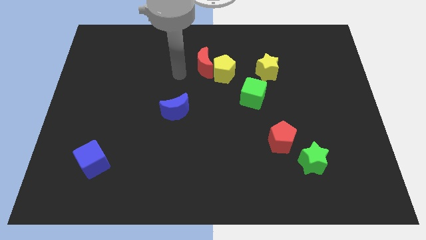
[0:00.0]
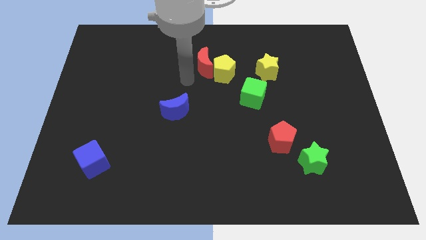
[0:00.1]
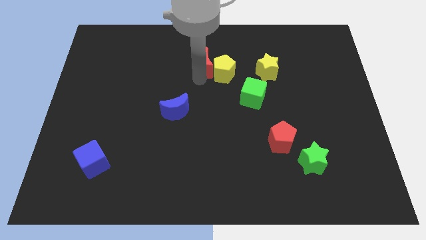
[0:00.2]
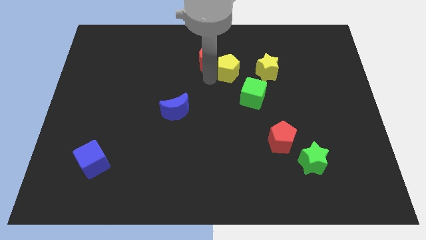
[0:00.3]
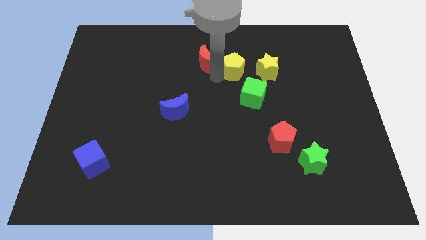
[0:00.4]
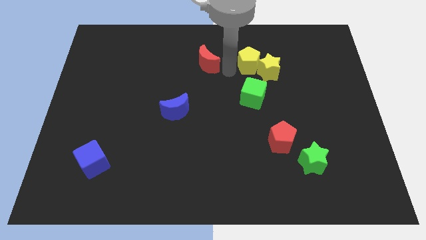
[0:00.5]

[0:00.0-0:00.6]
separate the red moon from the yellow pentagon

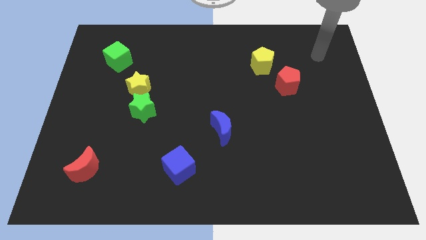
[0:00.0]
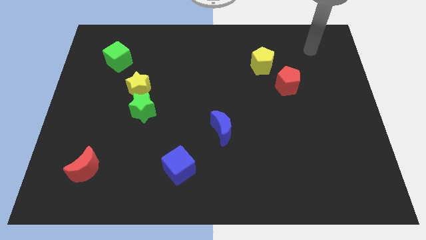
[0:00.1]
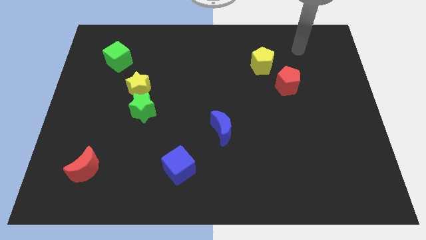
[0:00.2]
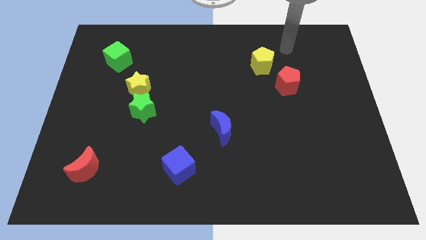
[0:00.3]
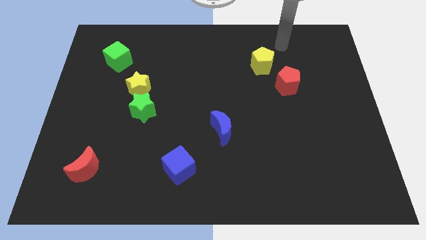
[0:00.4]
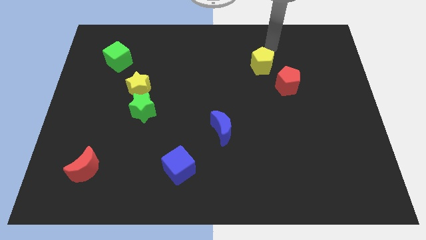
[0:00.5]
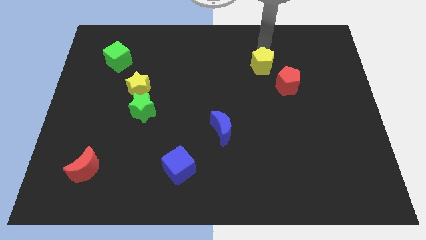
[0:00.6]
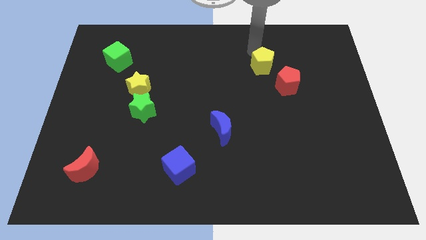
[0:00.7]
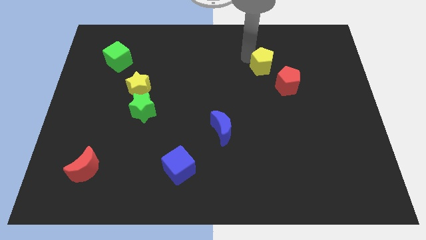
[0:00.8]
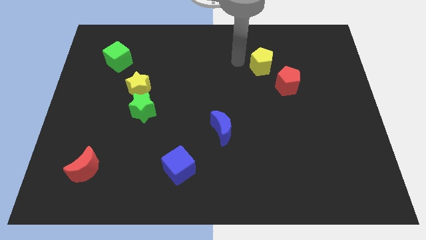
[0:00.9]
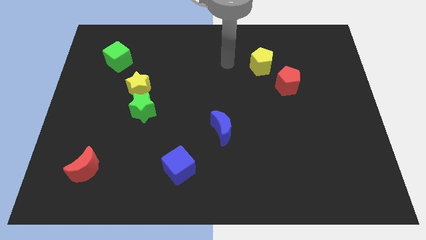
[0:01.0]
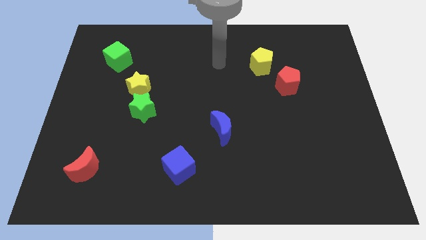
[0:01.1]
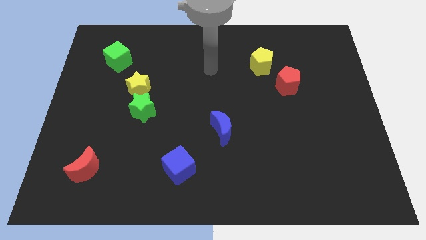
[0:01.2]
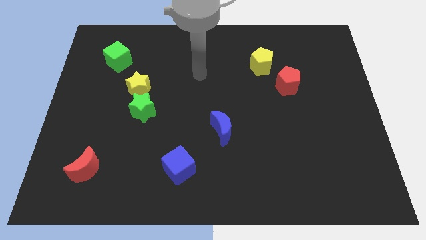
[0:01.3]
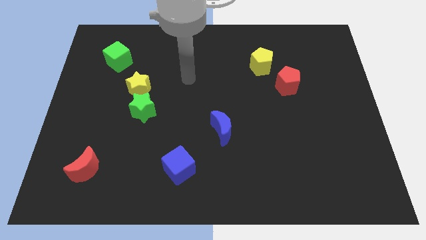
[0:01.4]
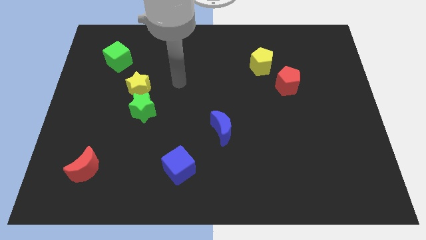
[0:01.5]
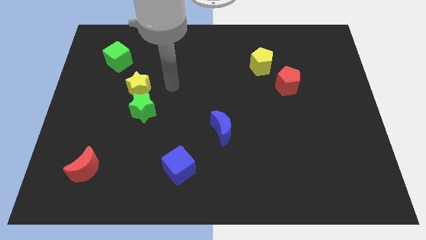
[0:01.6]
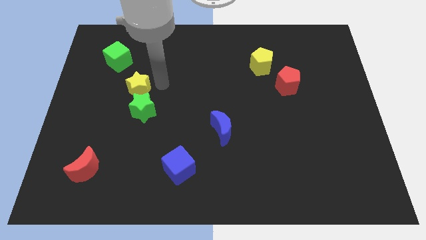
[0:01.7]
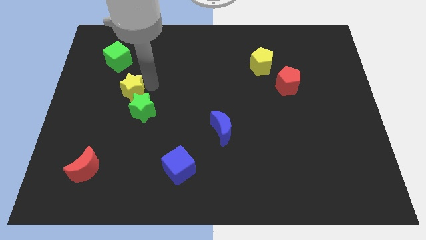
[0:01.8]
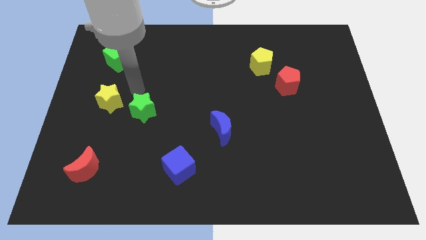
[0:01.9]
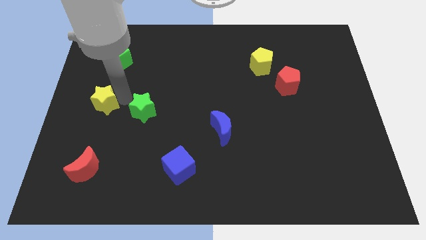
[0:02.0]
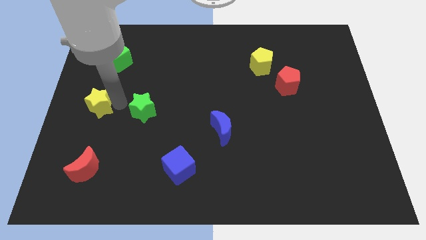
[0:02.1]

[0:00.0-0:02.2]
pull the green star apart from the yellow star

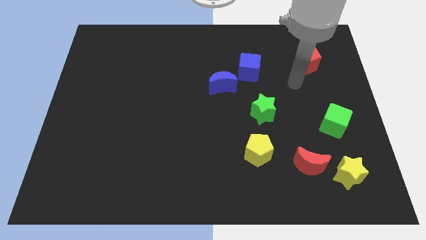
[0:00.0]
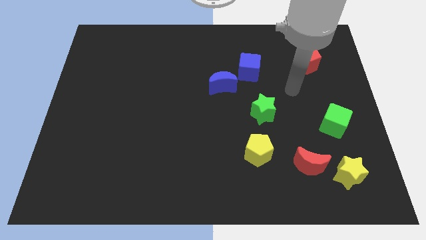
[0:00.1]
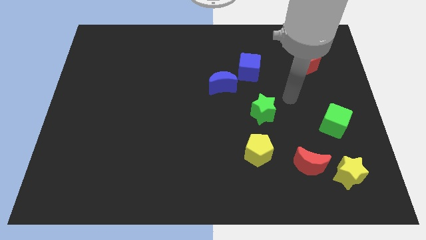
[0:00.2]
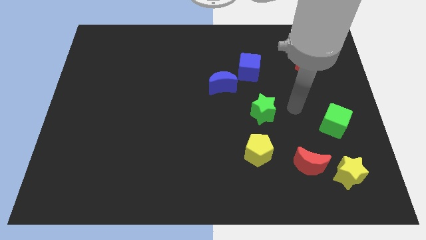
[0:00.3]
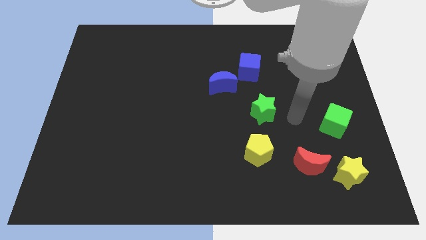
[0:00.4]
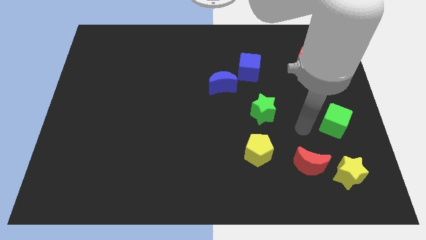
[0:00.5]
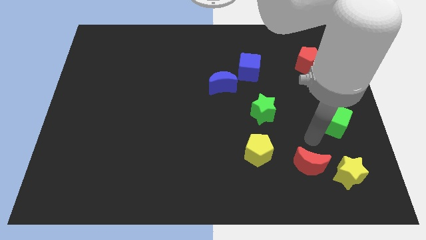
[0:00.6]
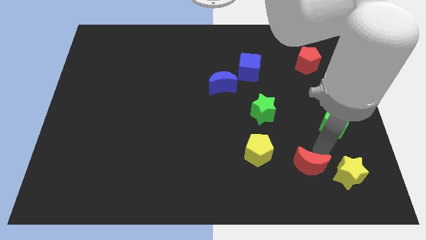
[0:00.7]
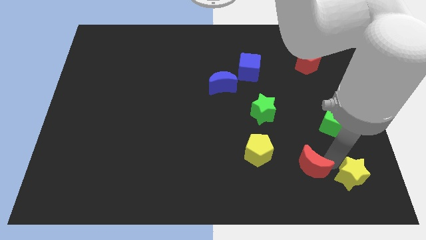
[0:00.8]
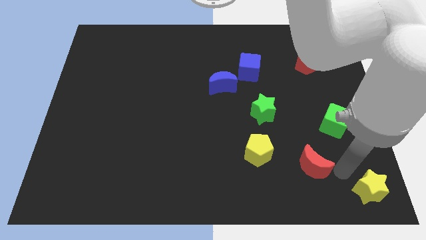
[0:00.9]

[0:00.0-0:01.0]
separate the red moon from the yellow star

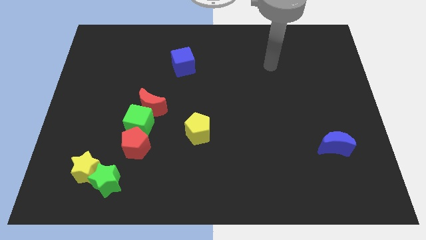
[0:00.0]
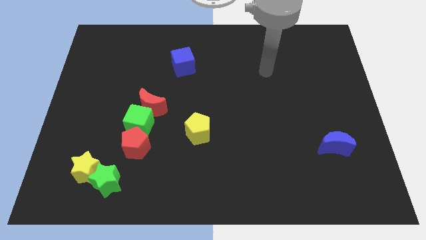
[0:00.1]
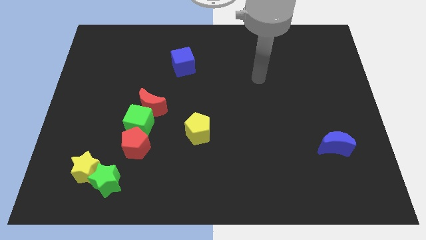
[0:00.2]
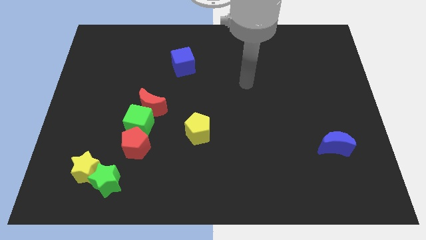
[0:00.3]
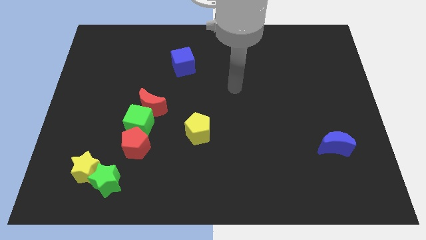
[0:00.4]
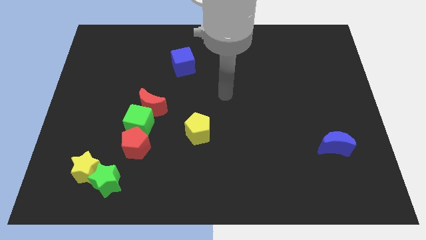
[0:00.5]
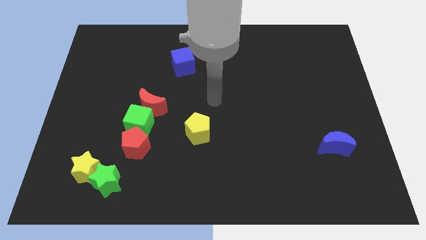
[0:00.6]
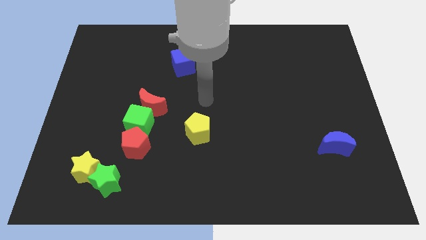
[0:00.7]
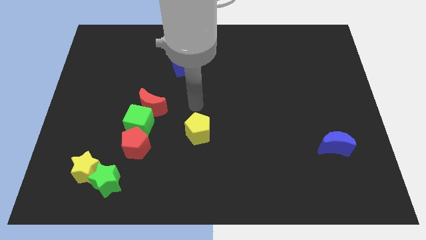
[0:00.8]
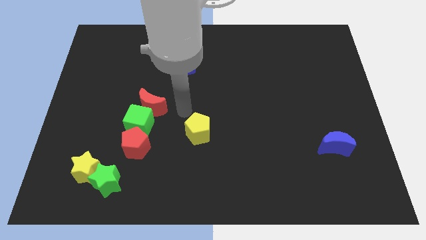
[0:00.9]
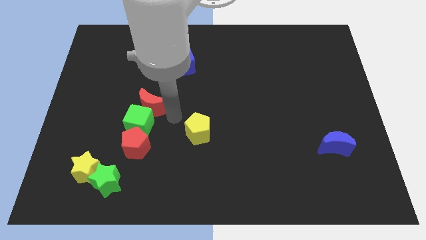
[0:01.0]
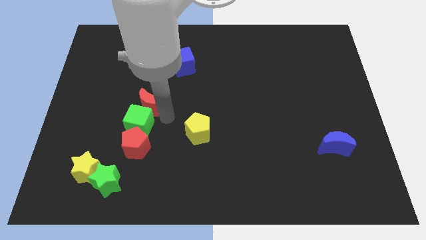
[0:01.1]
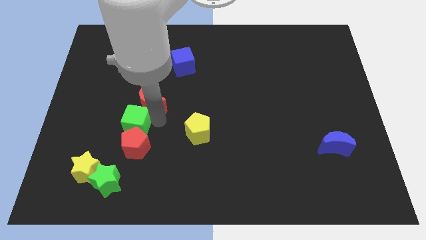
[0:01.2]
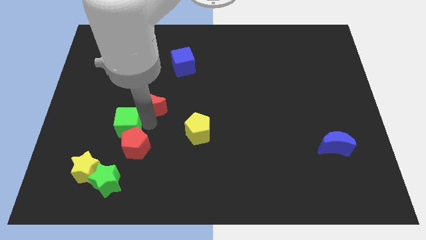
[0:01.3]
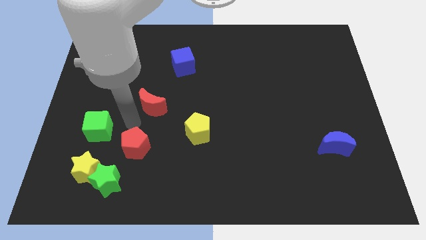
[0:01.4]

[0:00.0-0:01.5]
pull the red moon apart from the green cube

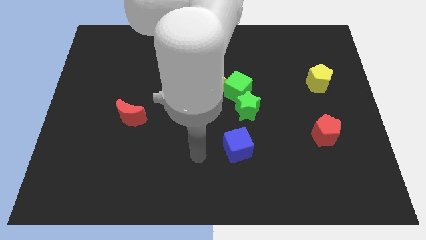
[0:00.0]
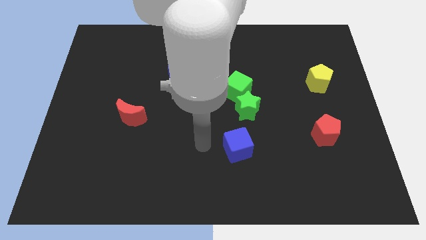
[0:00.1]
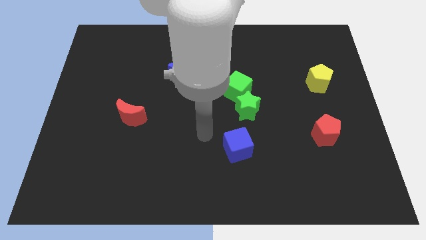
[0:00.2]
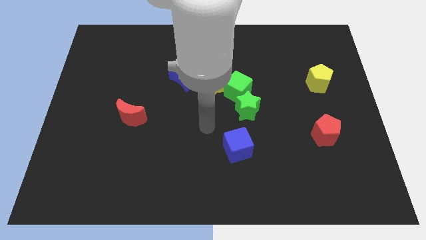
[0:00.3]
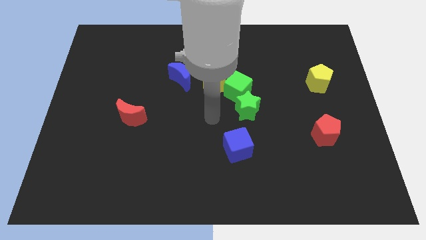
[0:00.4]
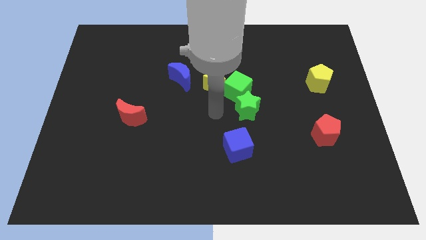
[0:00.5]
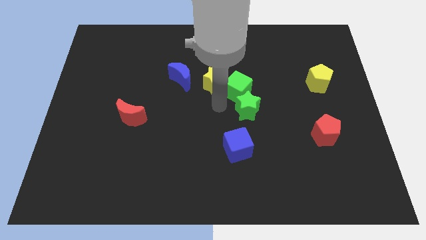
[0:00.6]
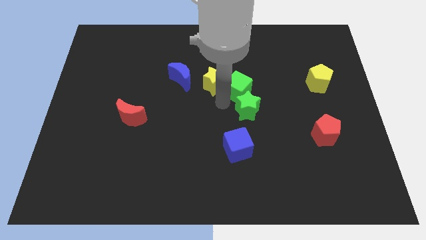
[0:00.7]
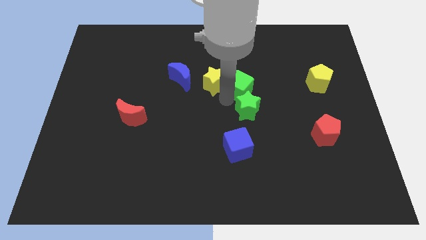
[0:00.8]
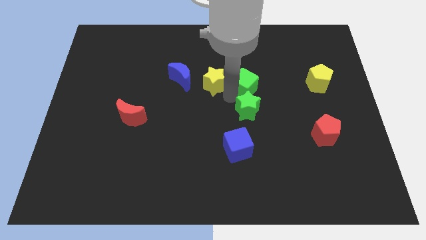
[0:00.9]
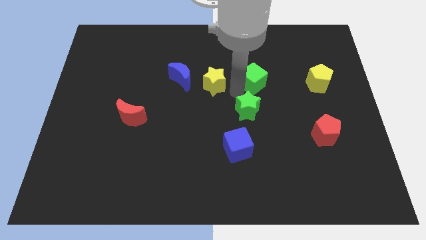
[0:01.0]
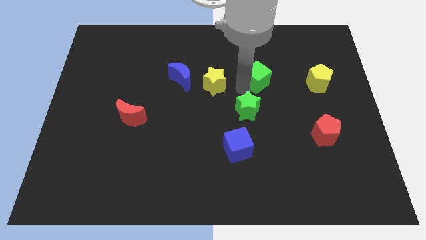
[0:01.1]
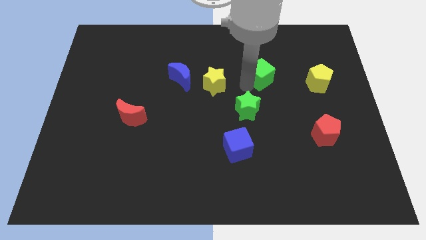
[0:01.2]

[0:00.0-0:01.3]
separate the green cube from the yellow star and green star

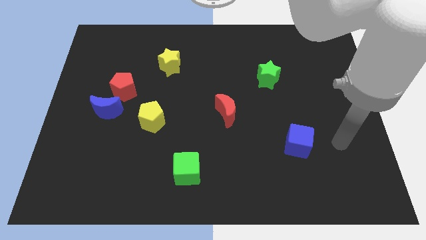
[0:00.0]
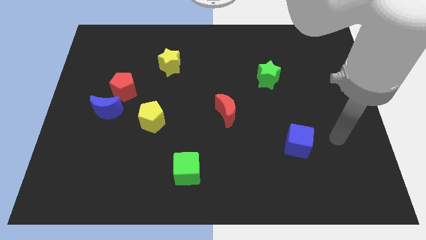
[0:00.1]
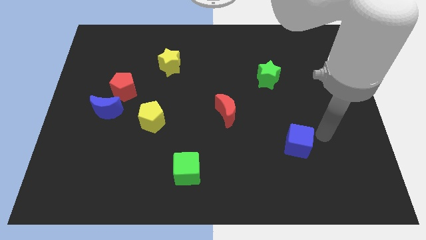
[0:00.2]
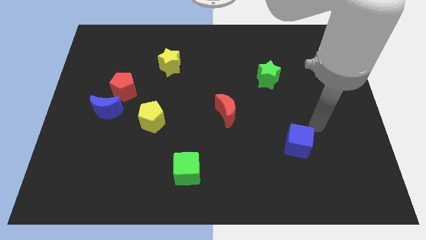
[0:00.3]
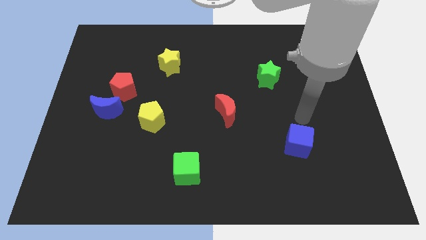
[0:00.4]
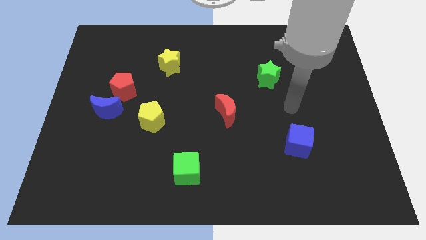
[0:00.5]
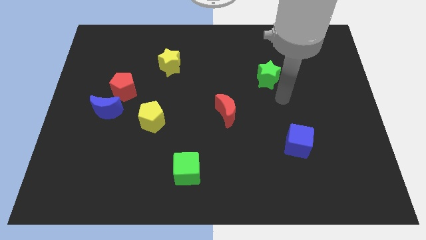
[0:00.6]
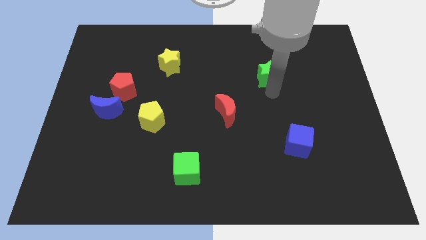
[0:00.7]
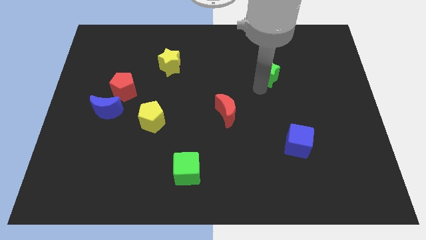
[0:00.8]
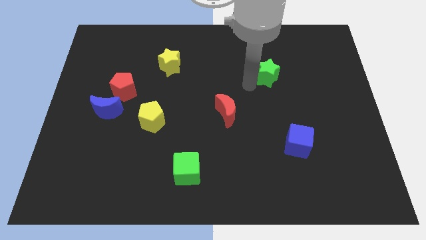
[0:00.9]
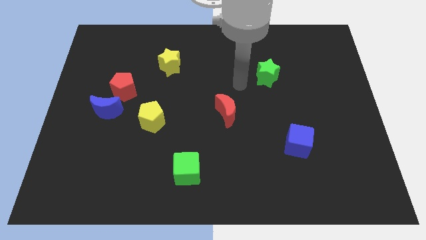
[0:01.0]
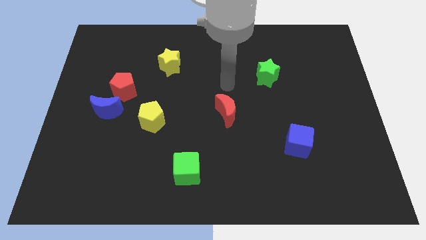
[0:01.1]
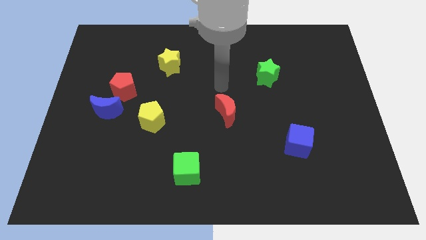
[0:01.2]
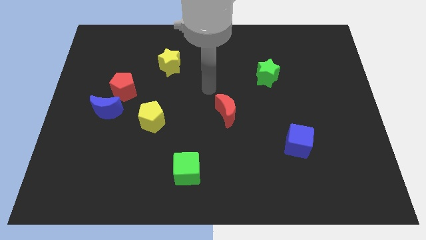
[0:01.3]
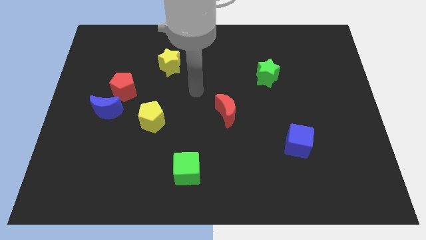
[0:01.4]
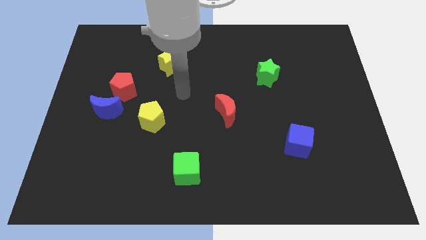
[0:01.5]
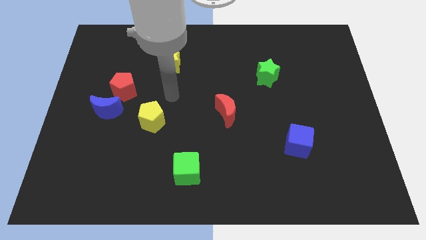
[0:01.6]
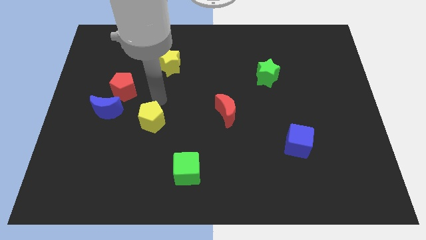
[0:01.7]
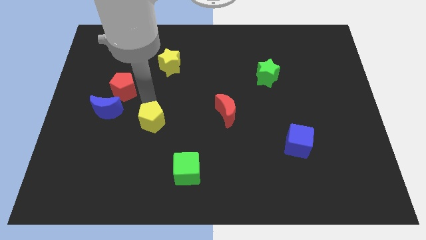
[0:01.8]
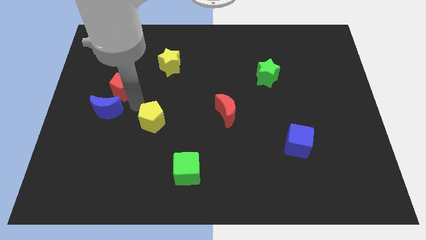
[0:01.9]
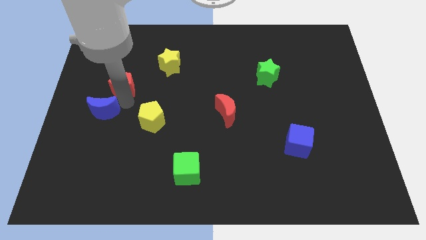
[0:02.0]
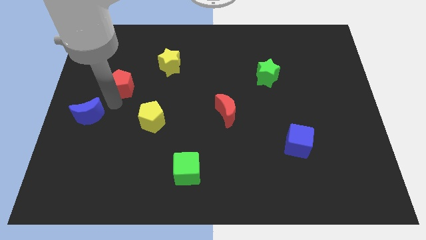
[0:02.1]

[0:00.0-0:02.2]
move the red pentagon away from the blue moon

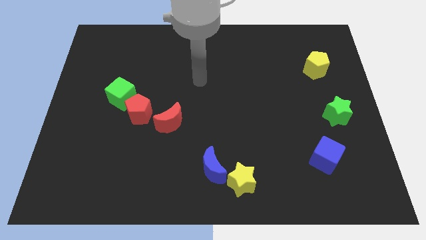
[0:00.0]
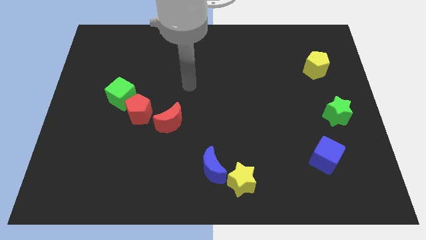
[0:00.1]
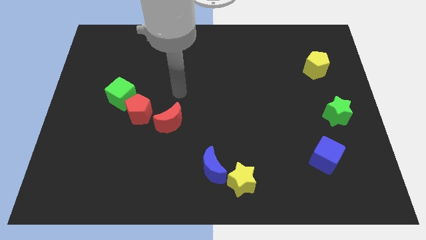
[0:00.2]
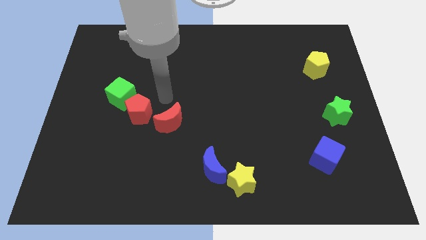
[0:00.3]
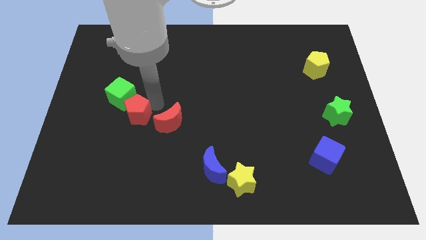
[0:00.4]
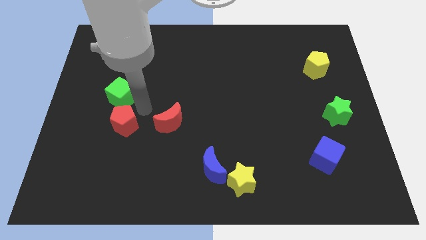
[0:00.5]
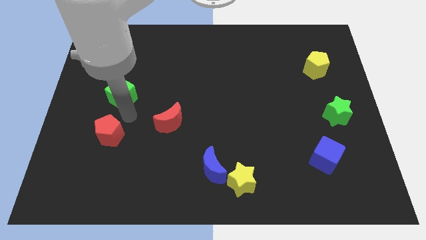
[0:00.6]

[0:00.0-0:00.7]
move the green cube away from the red pentagon
